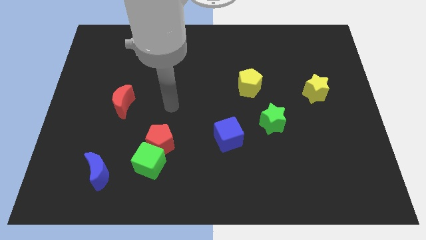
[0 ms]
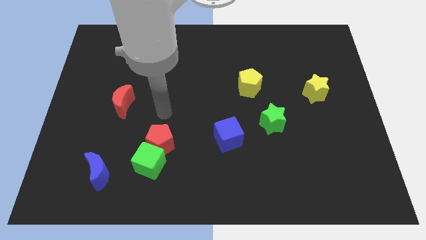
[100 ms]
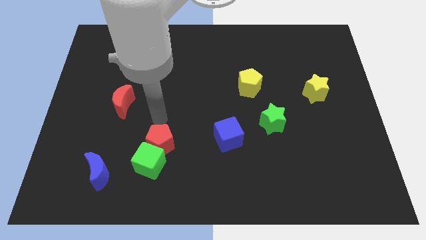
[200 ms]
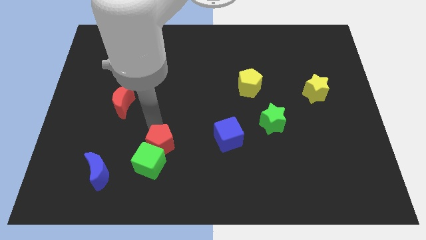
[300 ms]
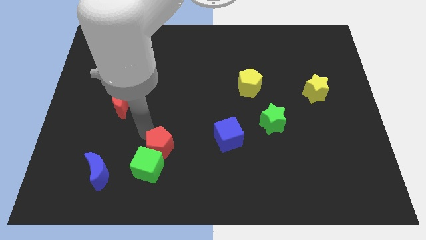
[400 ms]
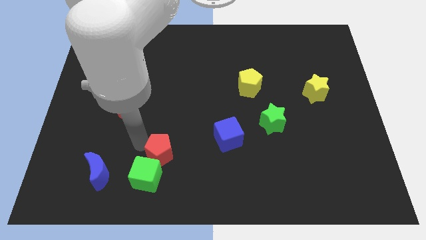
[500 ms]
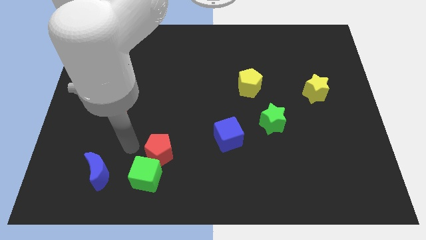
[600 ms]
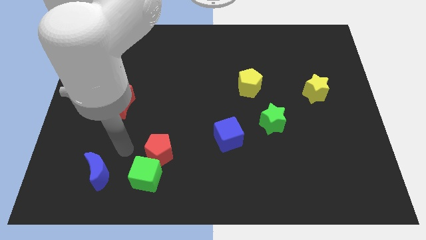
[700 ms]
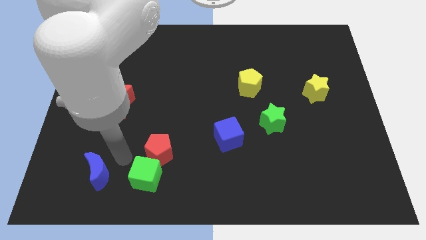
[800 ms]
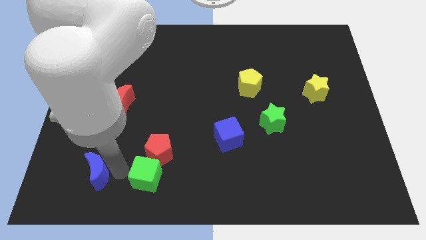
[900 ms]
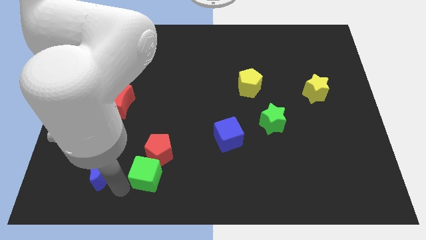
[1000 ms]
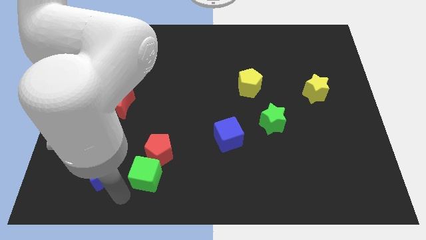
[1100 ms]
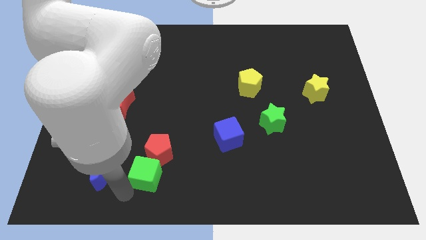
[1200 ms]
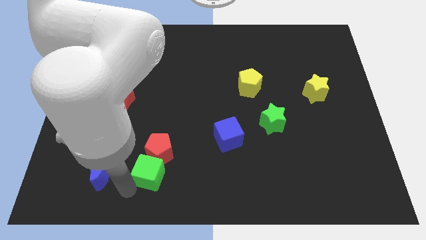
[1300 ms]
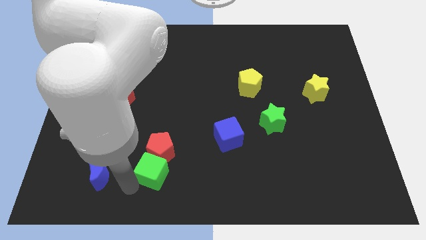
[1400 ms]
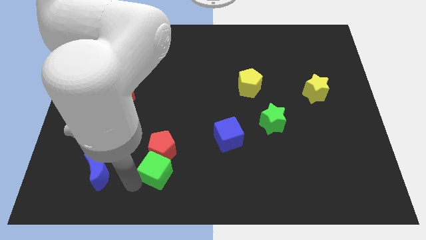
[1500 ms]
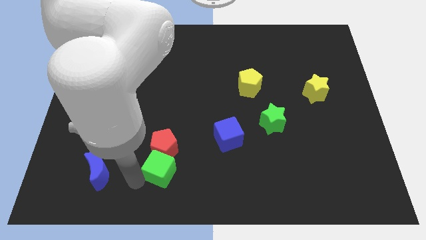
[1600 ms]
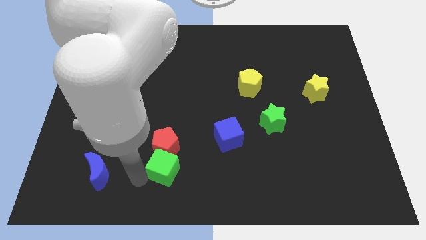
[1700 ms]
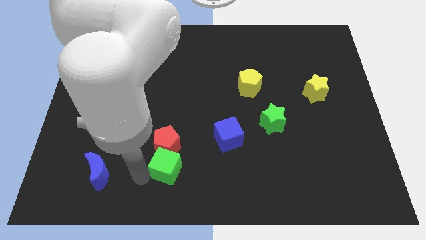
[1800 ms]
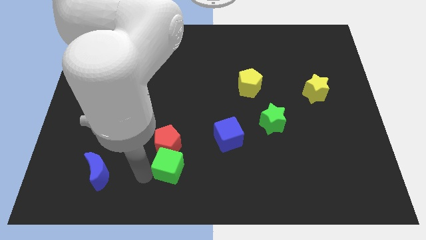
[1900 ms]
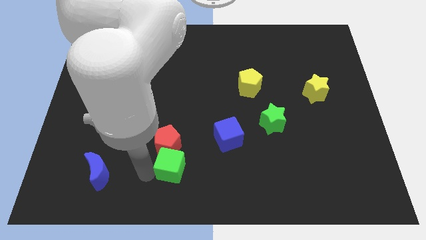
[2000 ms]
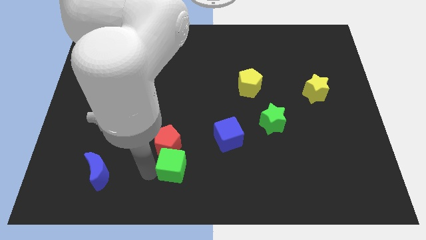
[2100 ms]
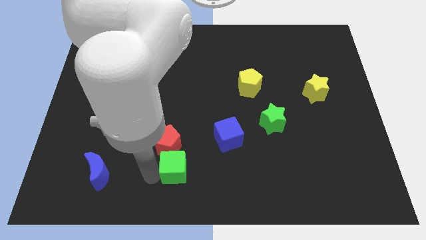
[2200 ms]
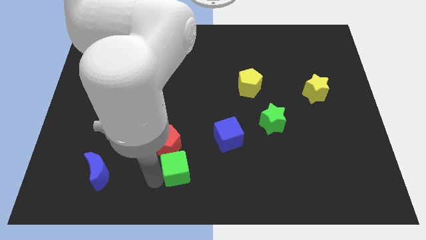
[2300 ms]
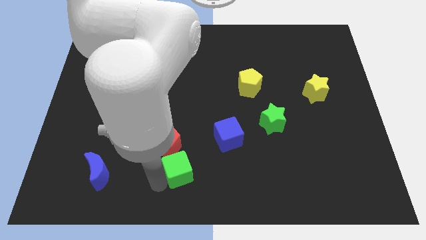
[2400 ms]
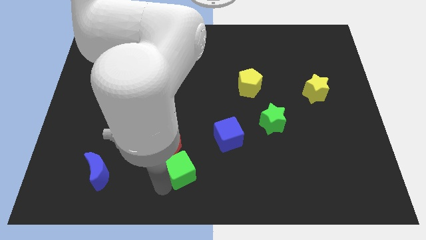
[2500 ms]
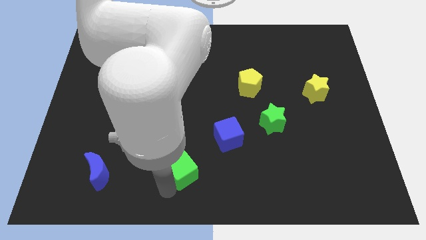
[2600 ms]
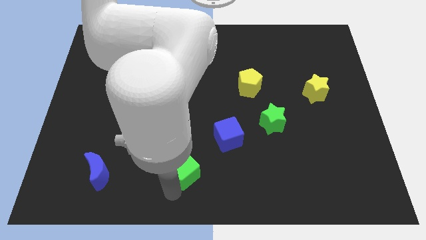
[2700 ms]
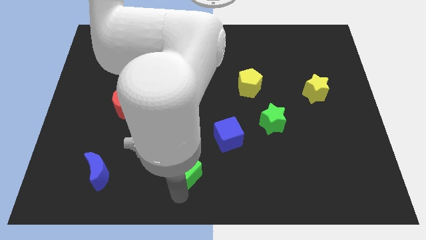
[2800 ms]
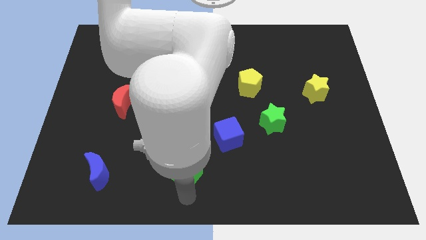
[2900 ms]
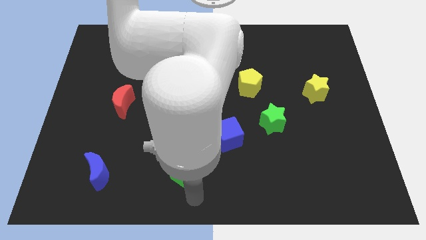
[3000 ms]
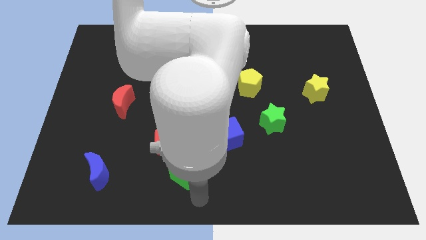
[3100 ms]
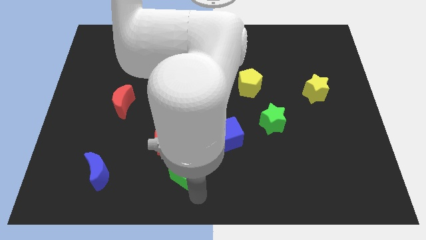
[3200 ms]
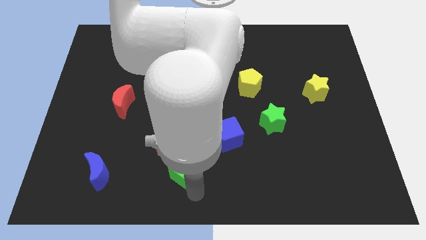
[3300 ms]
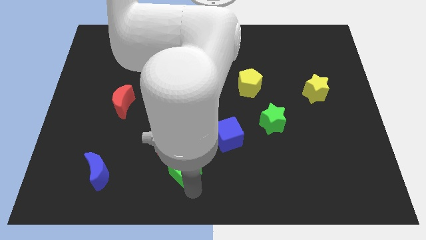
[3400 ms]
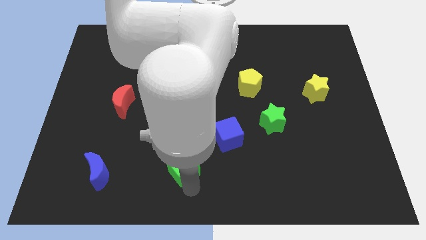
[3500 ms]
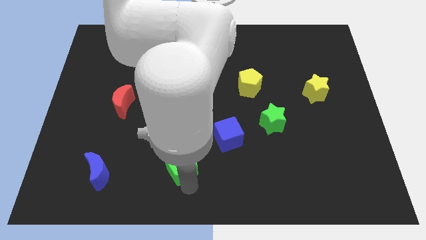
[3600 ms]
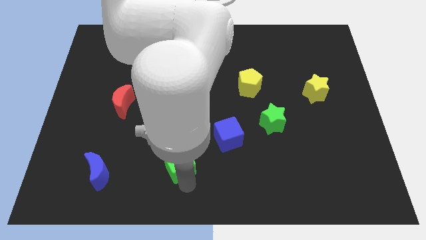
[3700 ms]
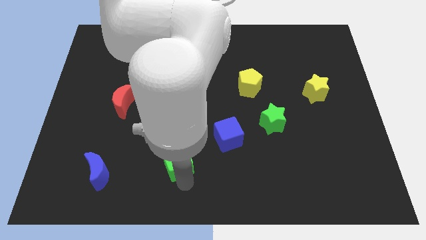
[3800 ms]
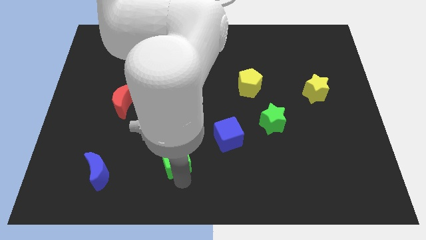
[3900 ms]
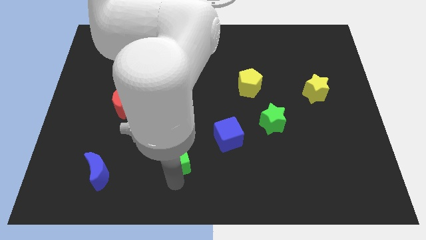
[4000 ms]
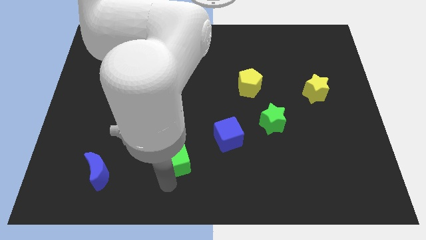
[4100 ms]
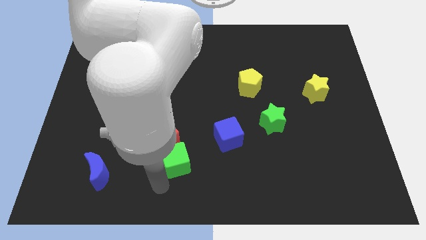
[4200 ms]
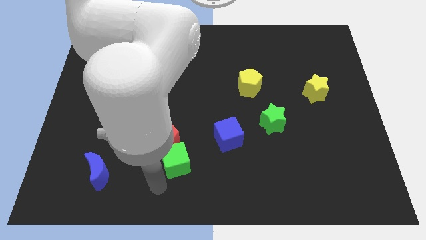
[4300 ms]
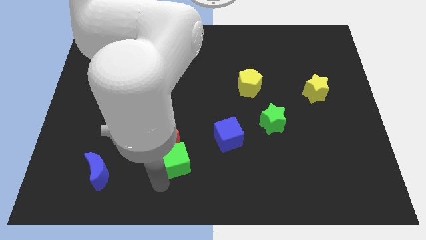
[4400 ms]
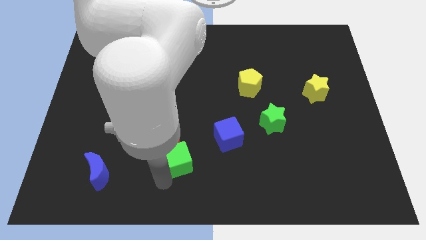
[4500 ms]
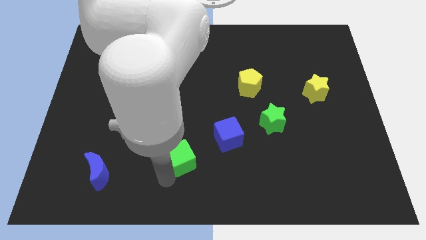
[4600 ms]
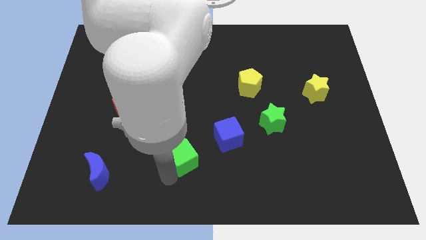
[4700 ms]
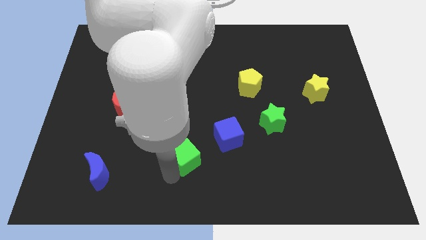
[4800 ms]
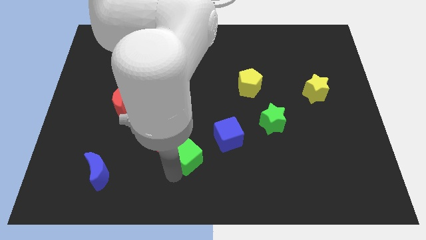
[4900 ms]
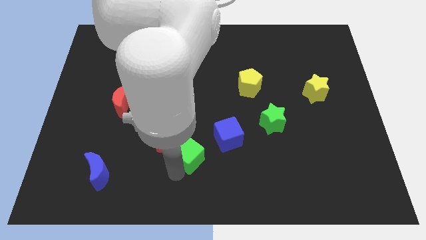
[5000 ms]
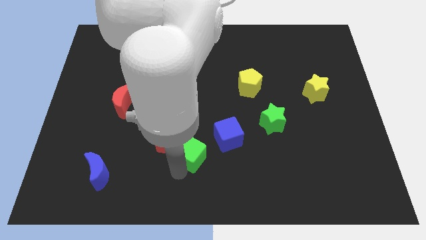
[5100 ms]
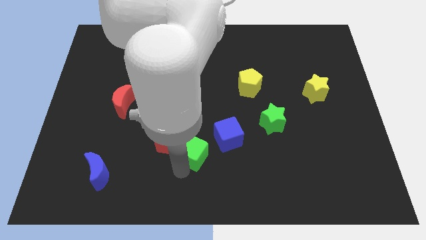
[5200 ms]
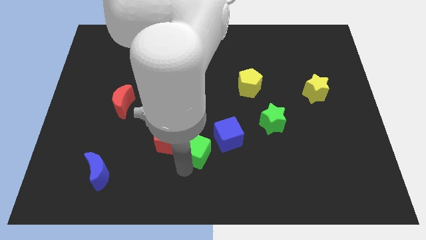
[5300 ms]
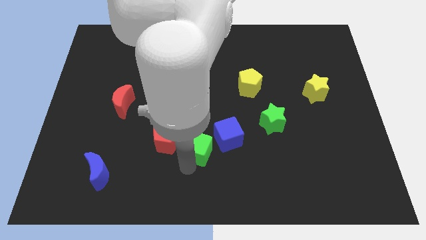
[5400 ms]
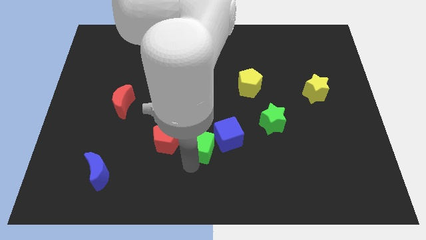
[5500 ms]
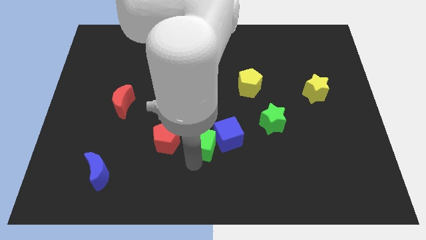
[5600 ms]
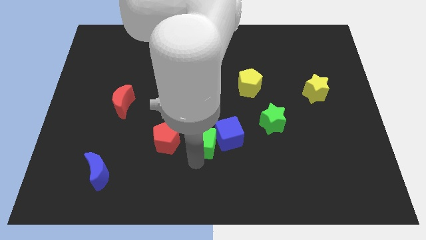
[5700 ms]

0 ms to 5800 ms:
slide the green cube to the center
